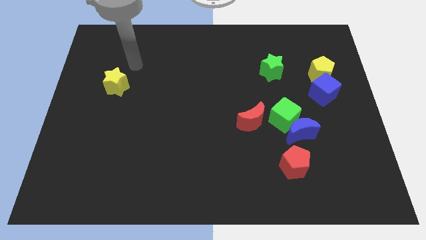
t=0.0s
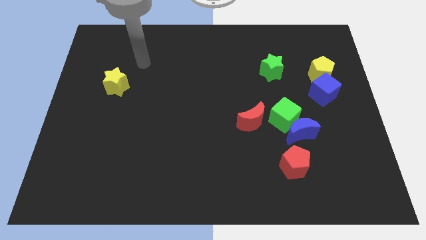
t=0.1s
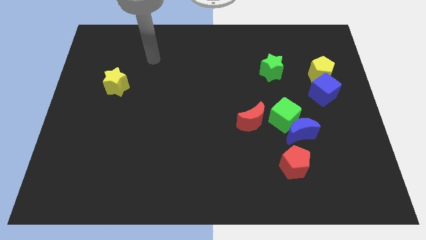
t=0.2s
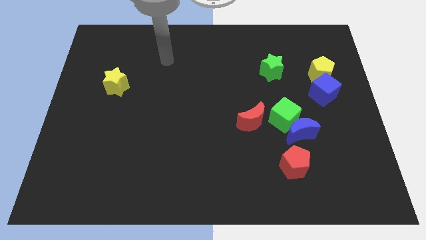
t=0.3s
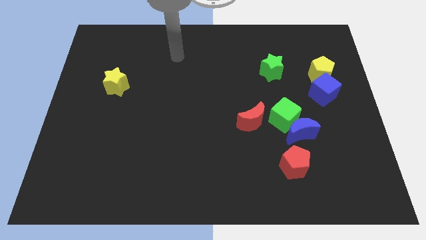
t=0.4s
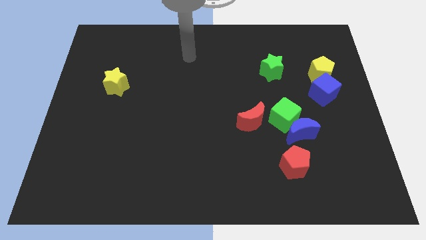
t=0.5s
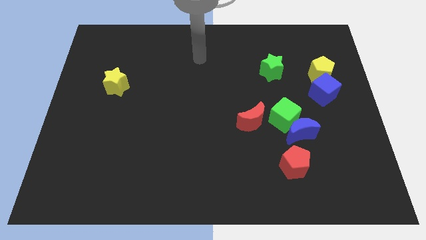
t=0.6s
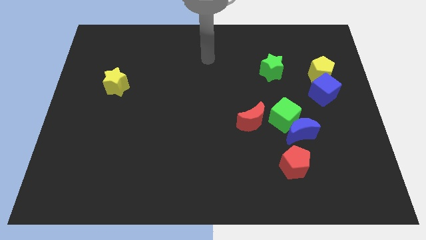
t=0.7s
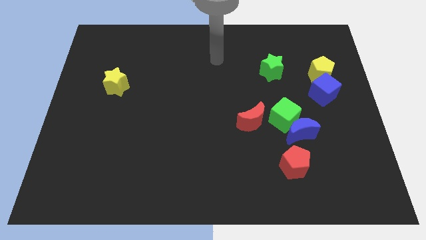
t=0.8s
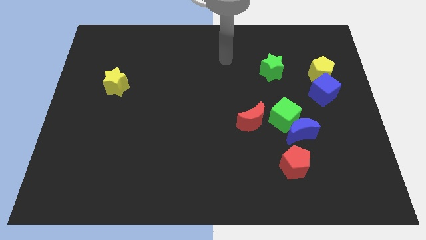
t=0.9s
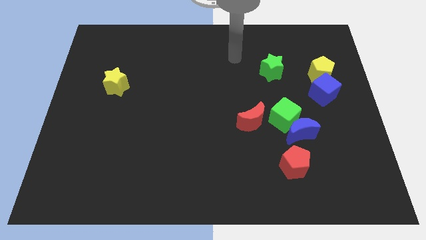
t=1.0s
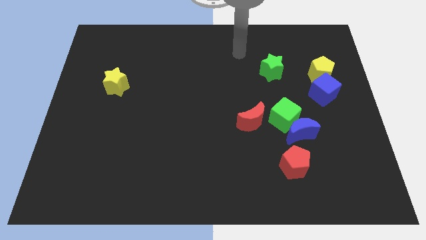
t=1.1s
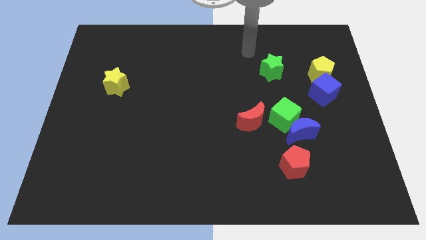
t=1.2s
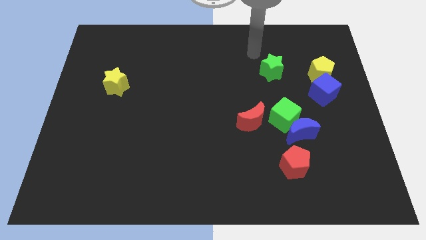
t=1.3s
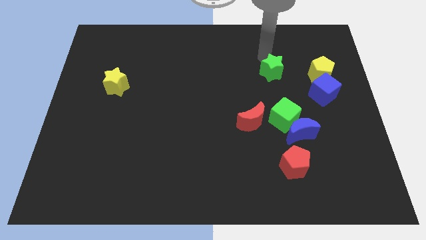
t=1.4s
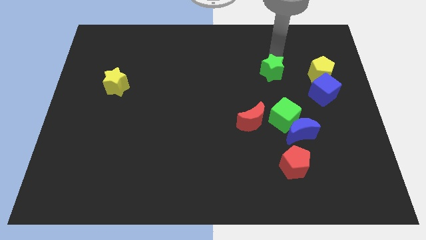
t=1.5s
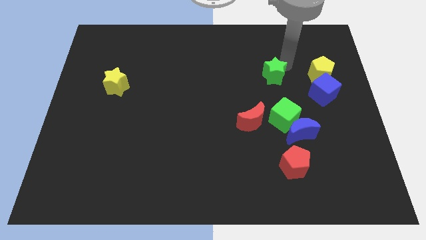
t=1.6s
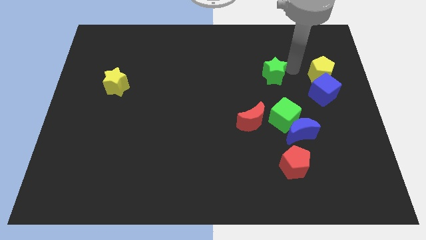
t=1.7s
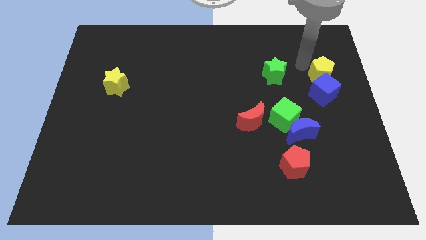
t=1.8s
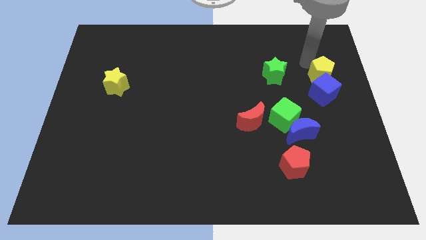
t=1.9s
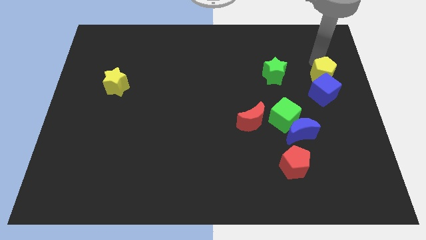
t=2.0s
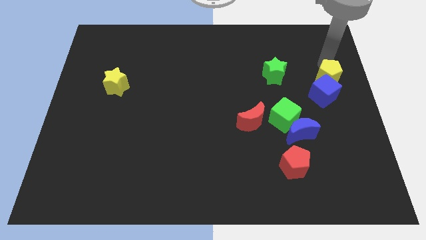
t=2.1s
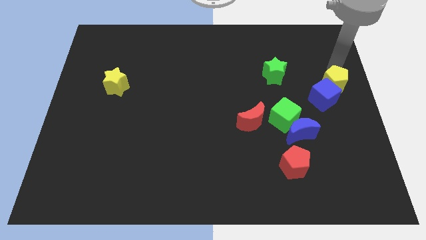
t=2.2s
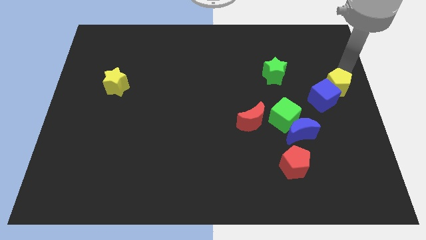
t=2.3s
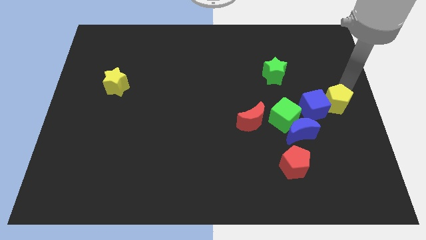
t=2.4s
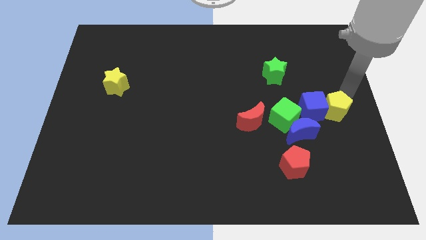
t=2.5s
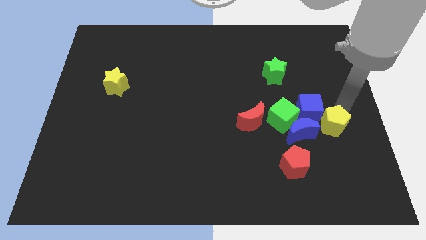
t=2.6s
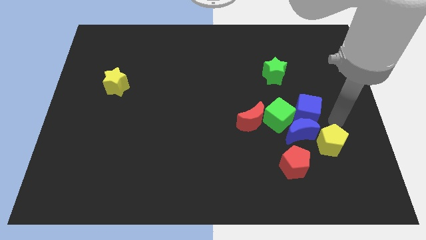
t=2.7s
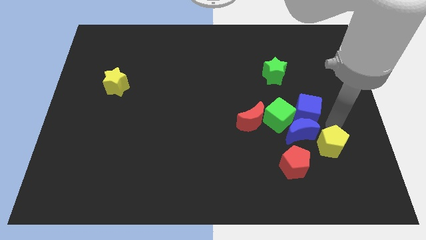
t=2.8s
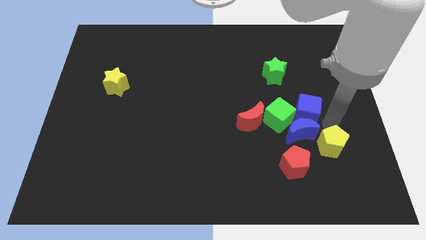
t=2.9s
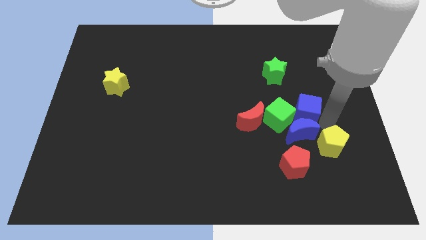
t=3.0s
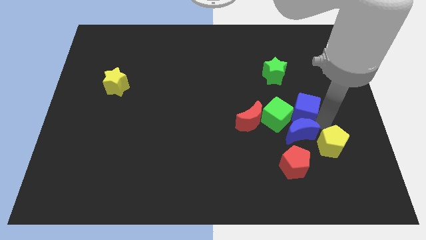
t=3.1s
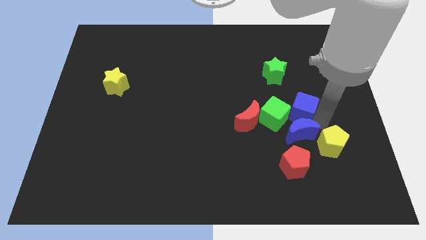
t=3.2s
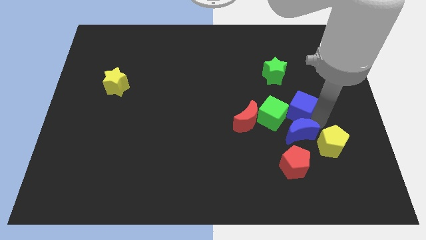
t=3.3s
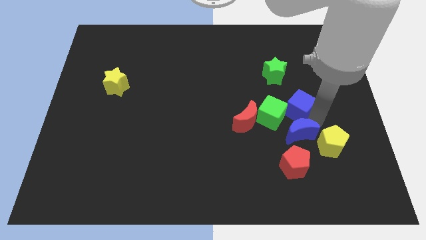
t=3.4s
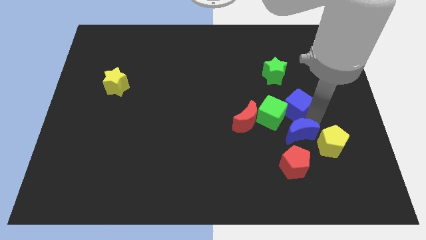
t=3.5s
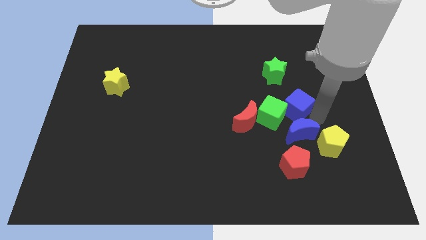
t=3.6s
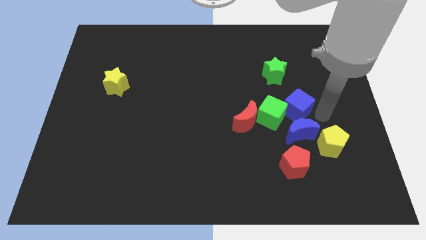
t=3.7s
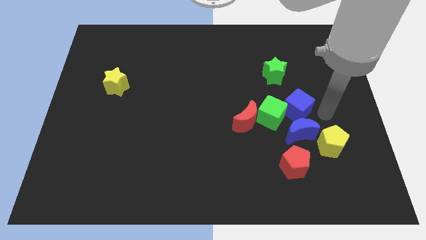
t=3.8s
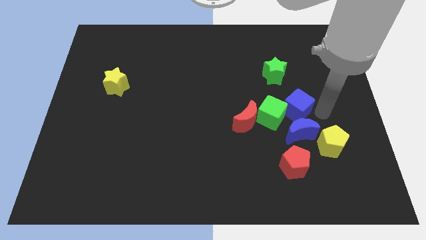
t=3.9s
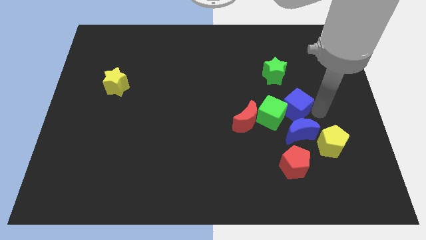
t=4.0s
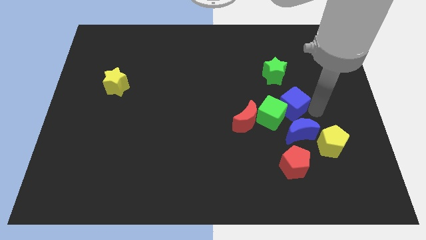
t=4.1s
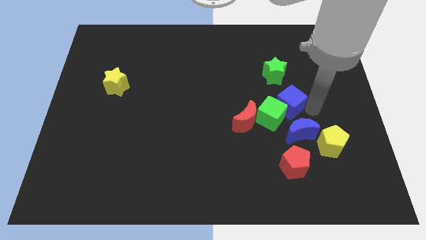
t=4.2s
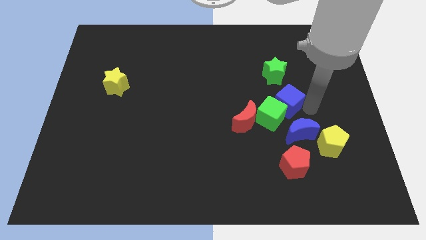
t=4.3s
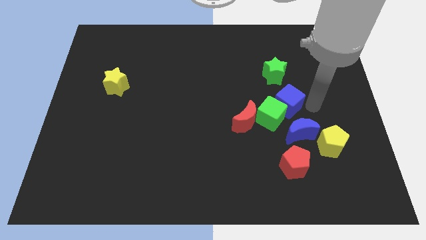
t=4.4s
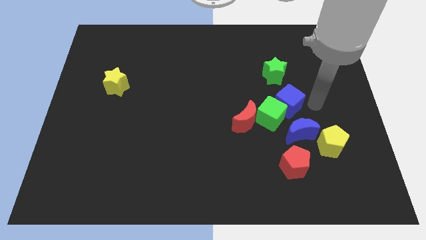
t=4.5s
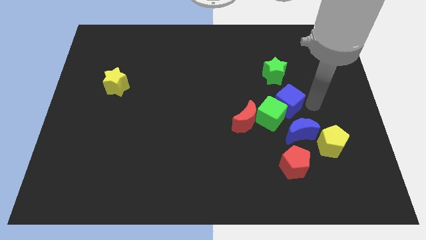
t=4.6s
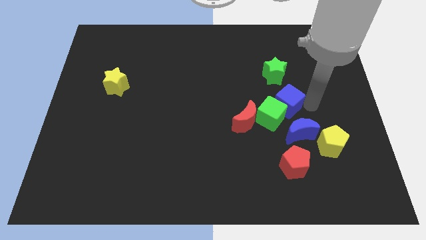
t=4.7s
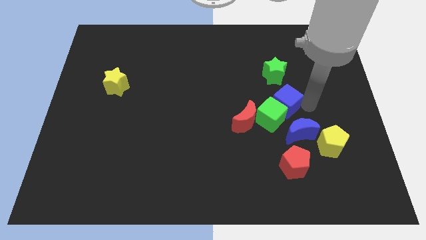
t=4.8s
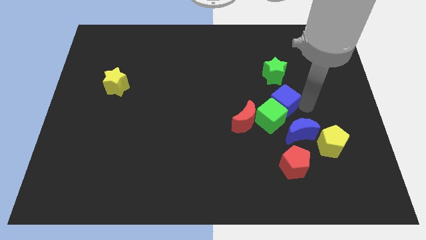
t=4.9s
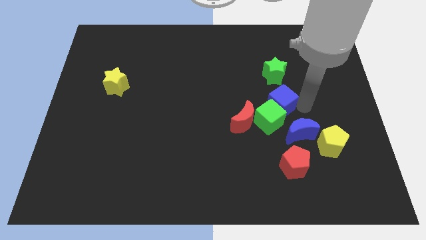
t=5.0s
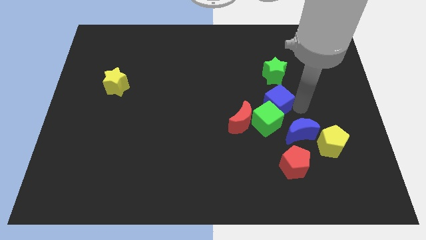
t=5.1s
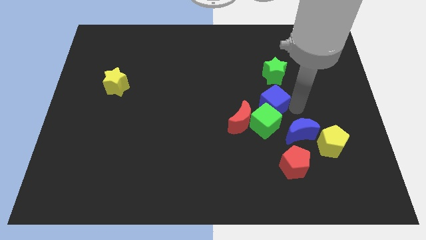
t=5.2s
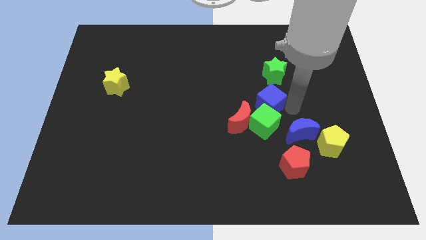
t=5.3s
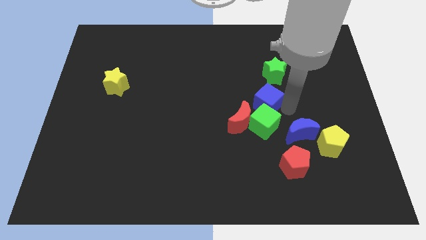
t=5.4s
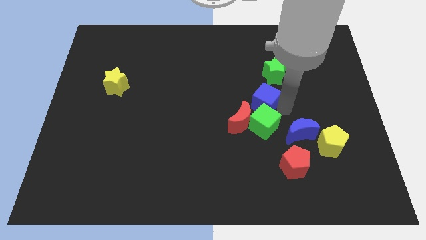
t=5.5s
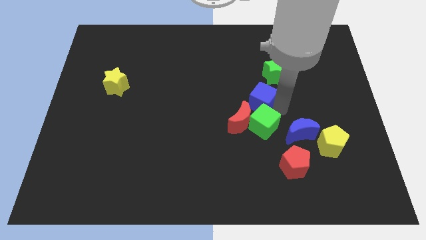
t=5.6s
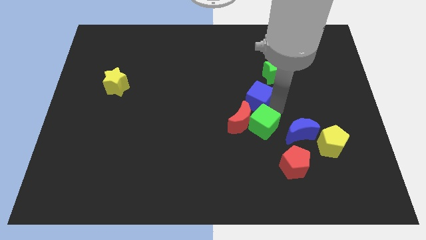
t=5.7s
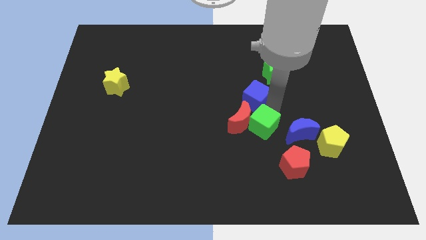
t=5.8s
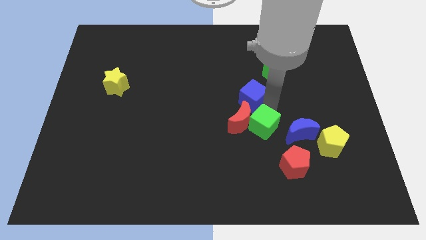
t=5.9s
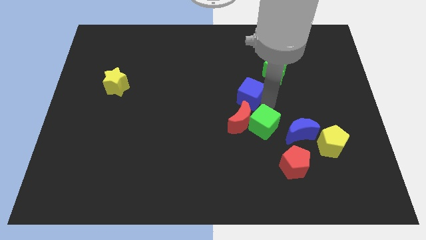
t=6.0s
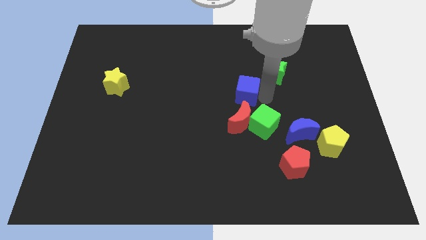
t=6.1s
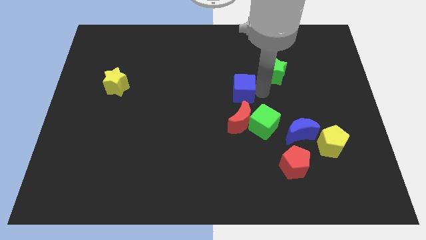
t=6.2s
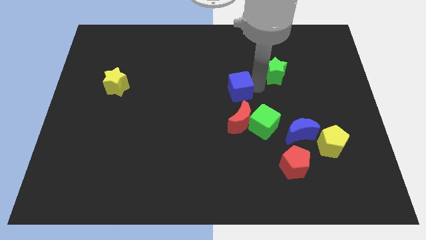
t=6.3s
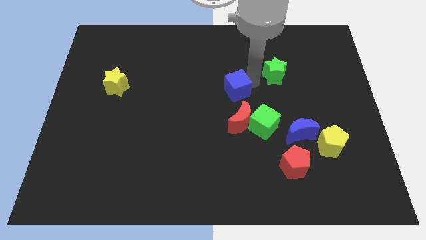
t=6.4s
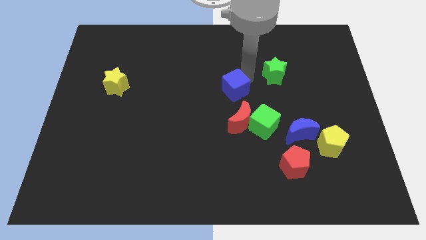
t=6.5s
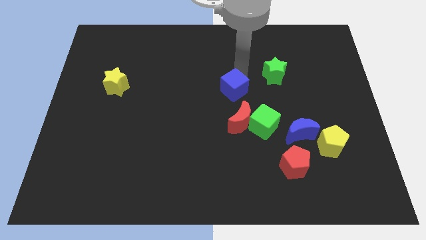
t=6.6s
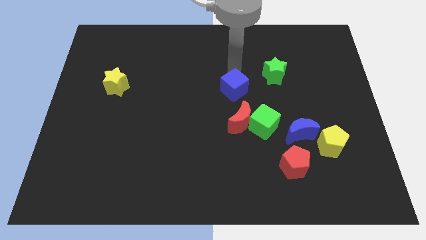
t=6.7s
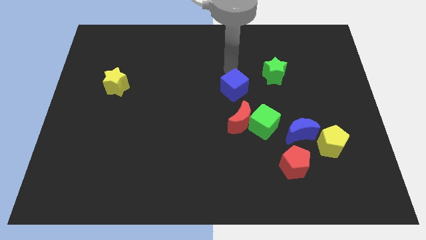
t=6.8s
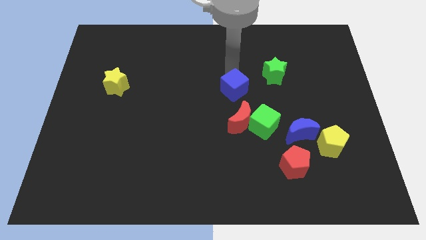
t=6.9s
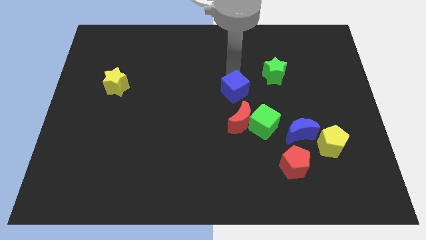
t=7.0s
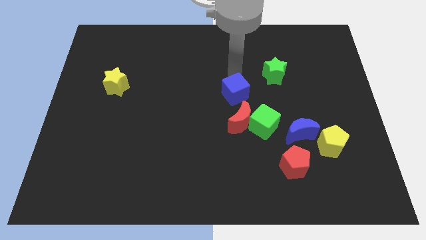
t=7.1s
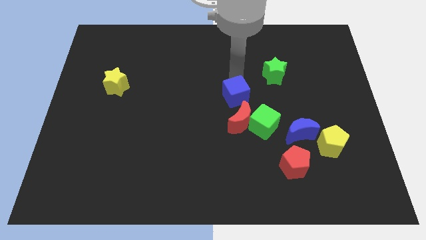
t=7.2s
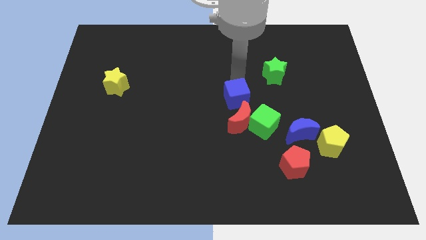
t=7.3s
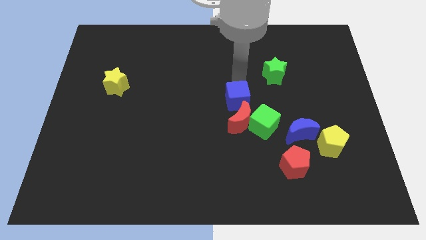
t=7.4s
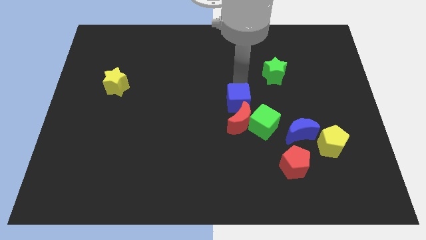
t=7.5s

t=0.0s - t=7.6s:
put the blue cube next to the red moon
